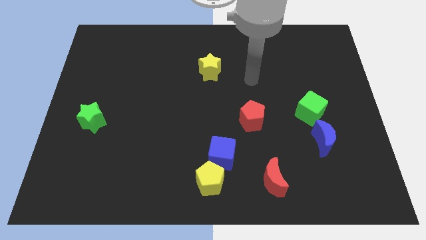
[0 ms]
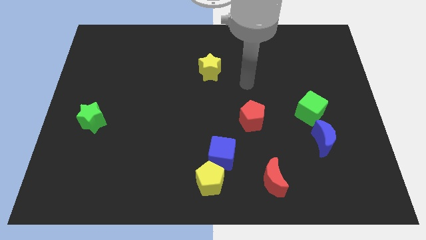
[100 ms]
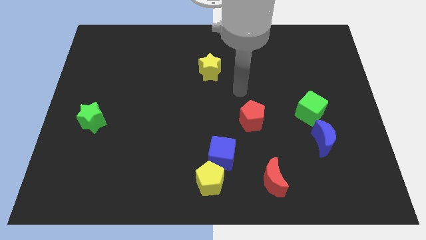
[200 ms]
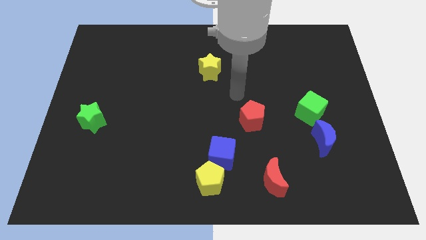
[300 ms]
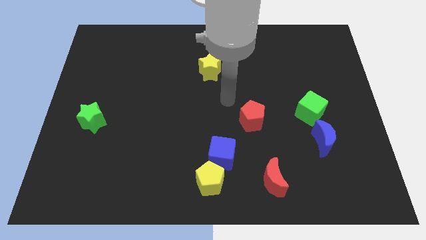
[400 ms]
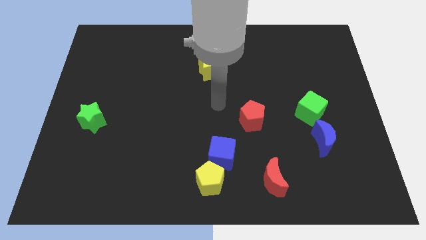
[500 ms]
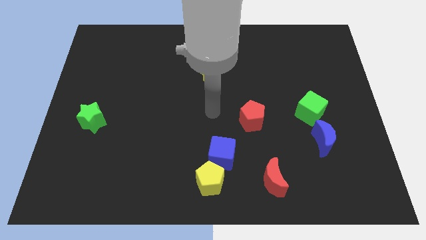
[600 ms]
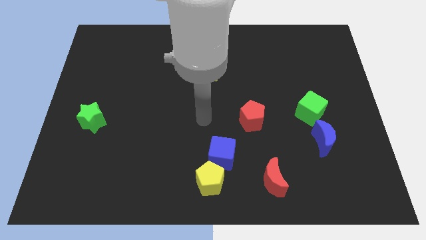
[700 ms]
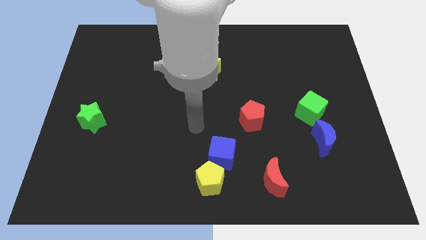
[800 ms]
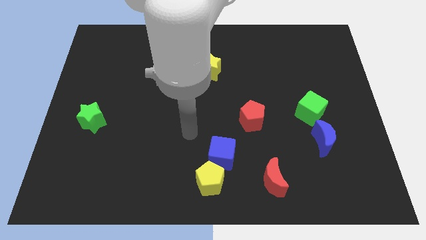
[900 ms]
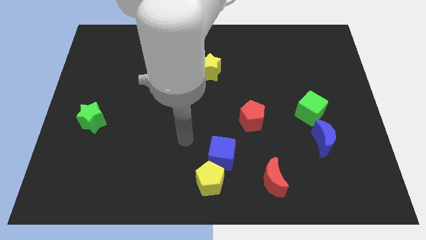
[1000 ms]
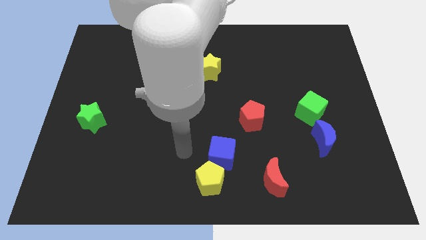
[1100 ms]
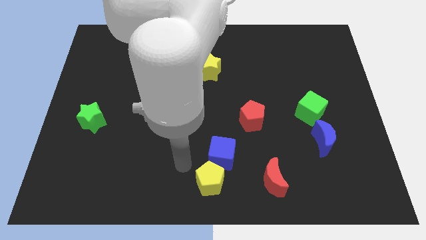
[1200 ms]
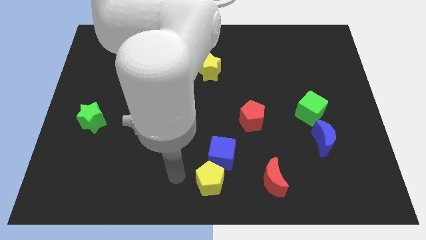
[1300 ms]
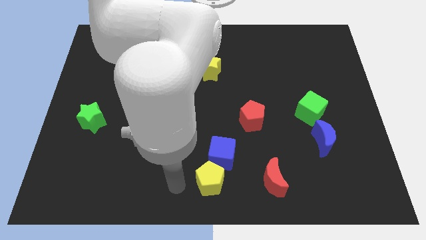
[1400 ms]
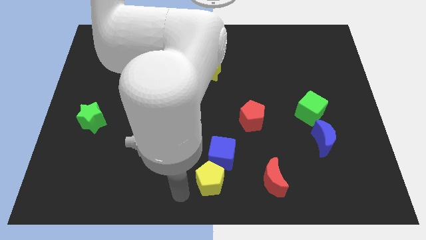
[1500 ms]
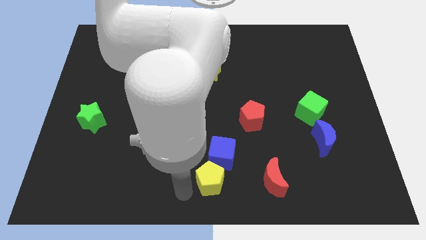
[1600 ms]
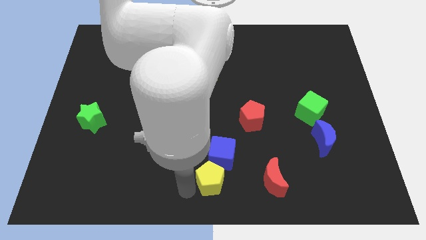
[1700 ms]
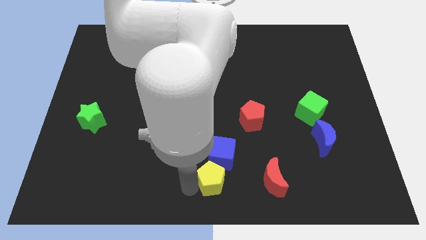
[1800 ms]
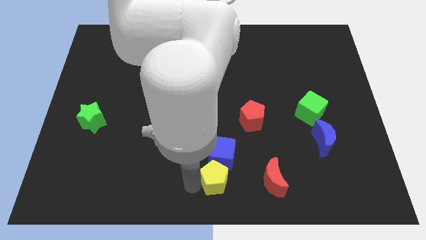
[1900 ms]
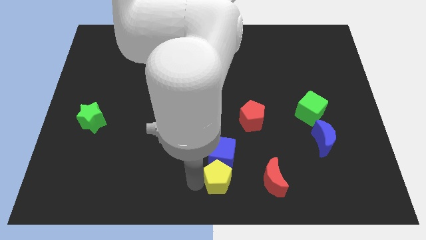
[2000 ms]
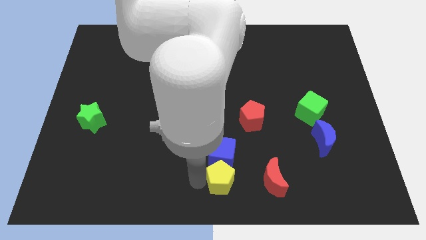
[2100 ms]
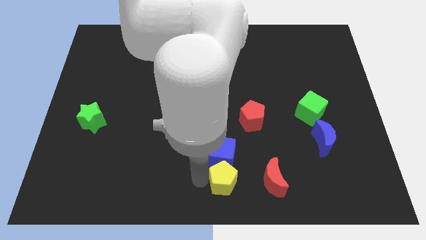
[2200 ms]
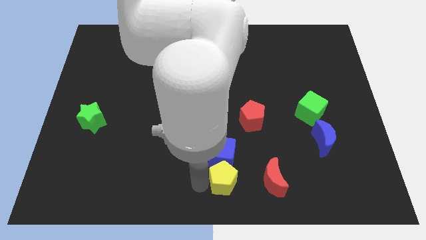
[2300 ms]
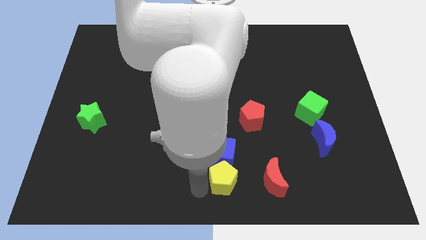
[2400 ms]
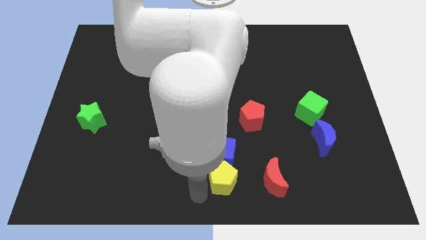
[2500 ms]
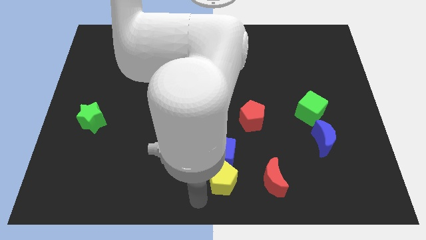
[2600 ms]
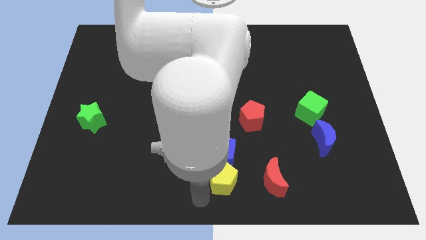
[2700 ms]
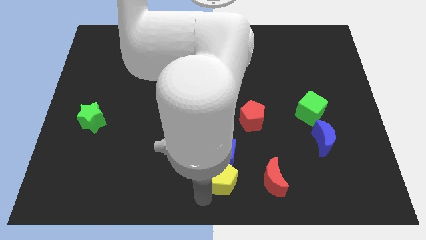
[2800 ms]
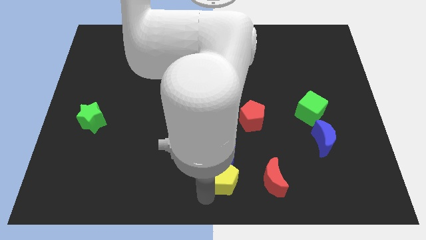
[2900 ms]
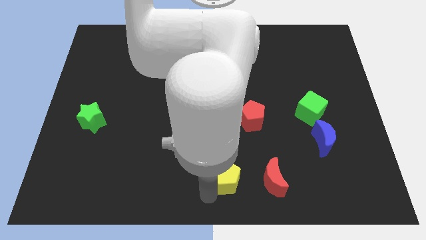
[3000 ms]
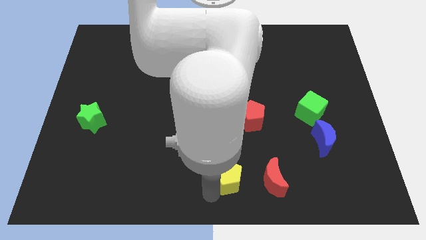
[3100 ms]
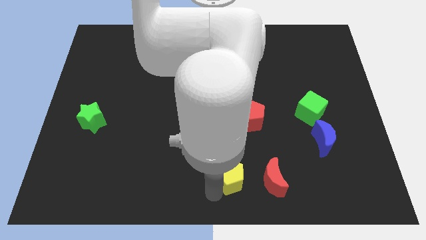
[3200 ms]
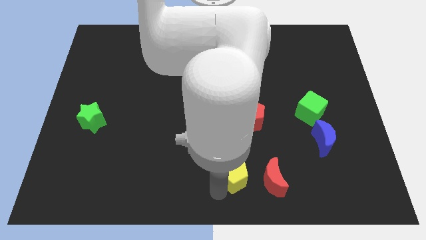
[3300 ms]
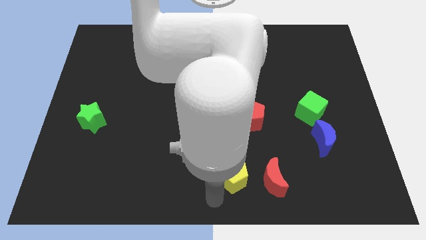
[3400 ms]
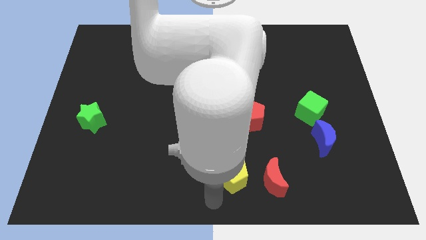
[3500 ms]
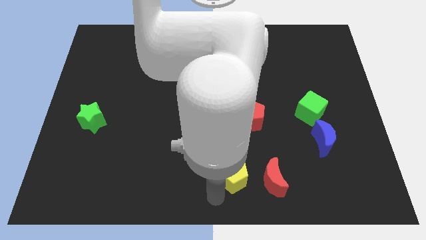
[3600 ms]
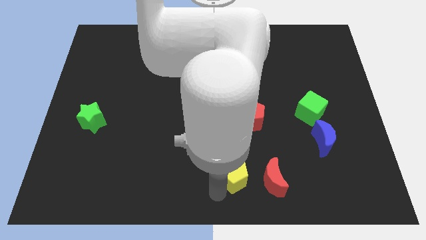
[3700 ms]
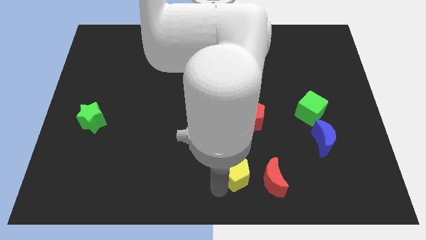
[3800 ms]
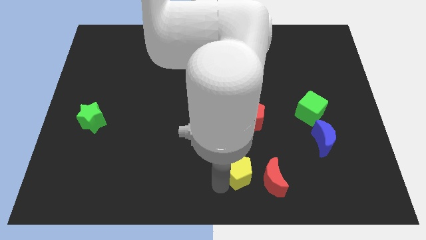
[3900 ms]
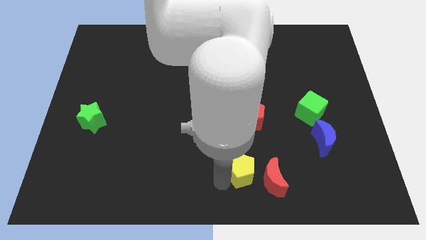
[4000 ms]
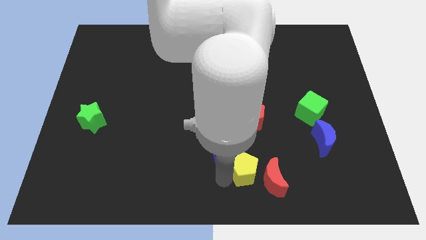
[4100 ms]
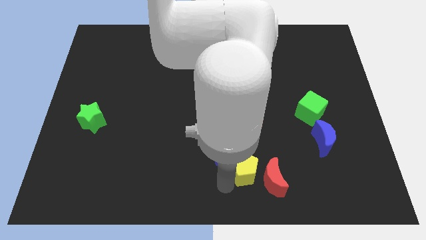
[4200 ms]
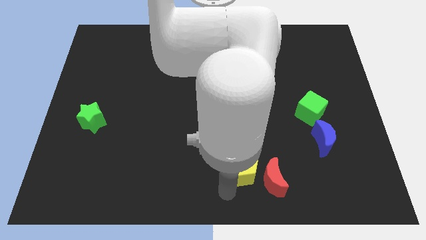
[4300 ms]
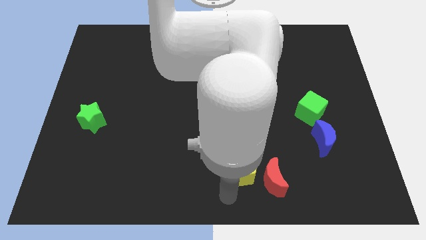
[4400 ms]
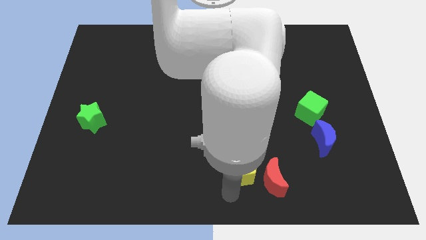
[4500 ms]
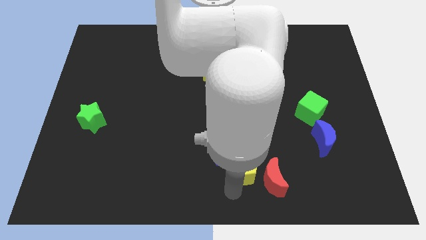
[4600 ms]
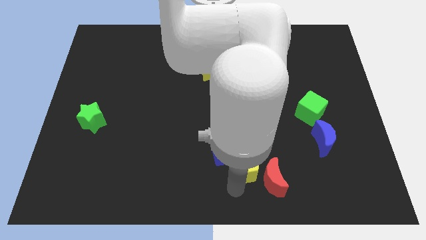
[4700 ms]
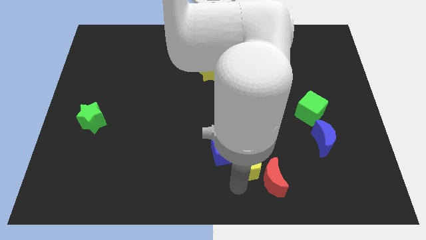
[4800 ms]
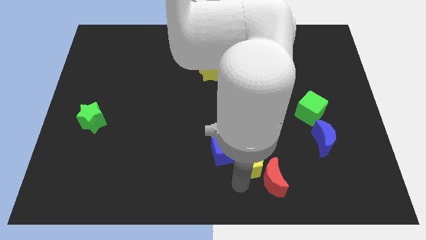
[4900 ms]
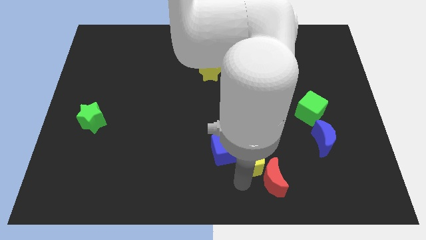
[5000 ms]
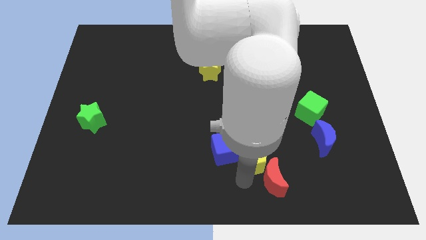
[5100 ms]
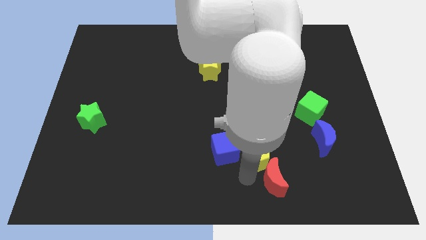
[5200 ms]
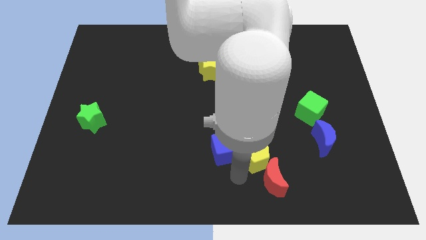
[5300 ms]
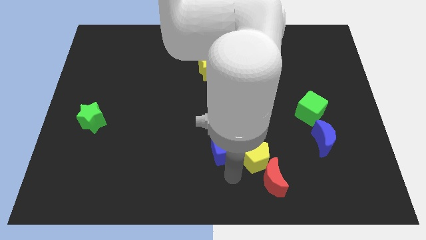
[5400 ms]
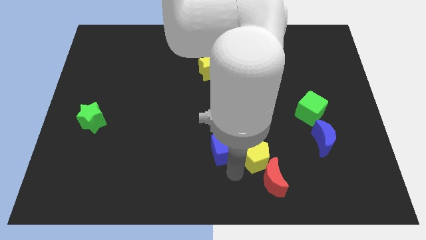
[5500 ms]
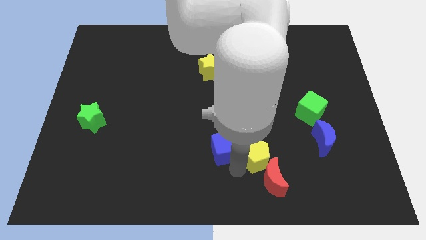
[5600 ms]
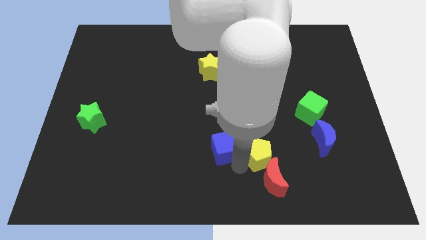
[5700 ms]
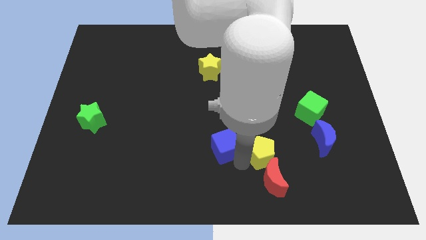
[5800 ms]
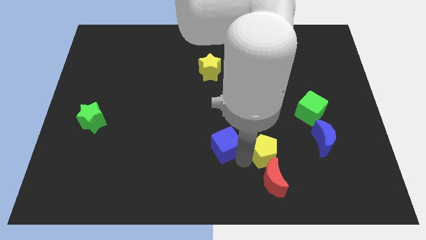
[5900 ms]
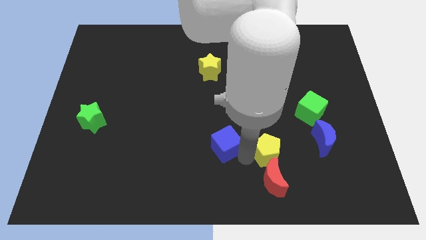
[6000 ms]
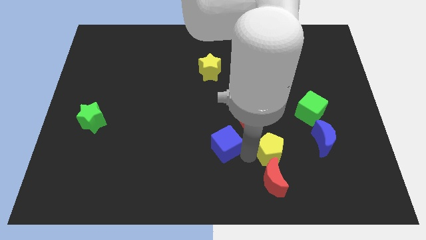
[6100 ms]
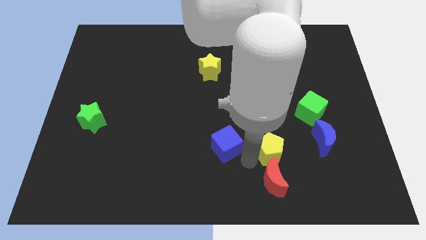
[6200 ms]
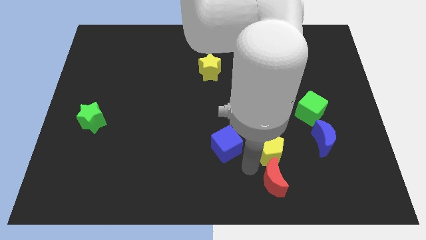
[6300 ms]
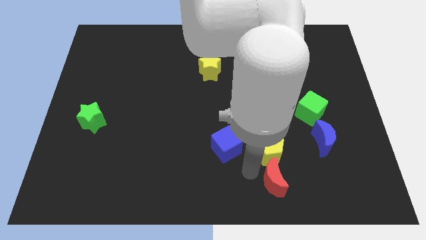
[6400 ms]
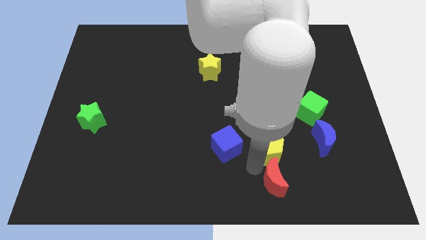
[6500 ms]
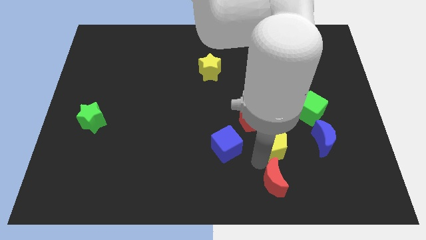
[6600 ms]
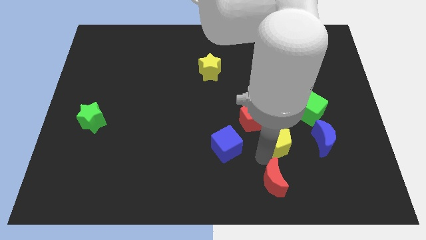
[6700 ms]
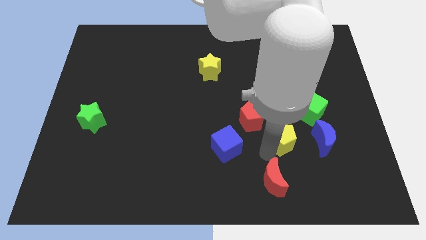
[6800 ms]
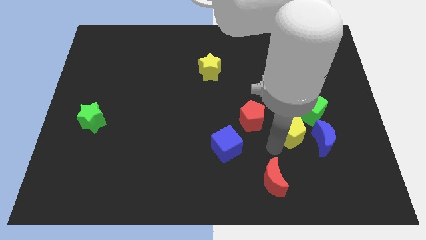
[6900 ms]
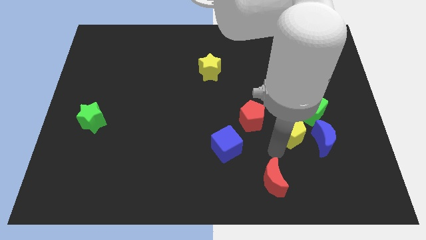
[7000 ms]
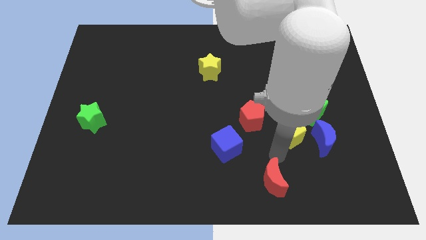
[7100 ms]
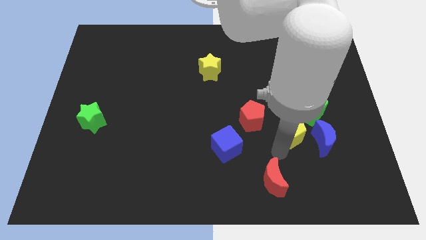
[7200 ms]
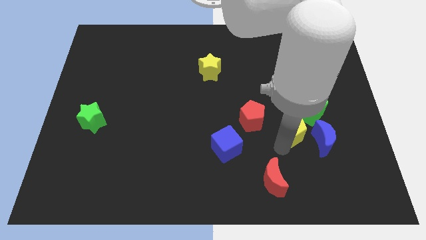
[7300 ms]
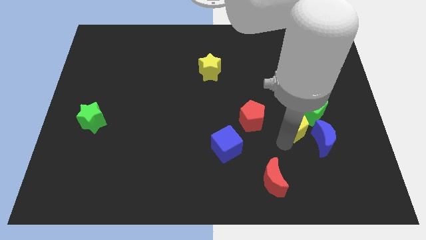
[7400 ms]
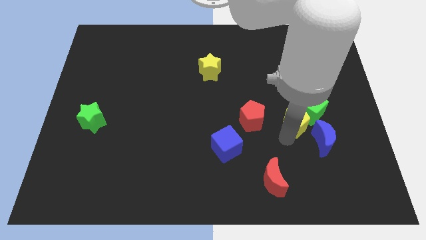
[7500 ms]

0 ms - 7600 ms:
push the yellow pentagon next to the green cube
